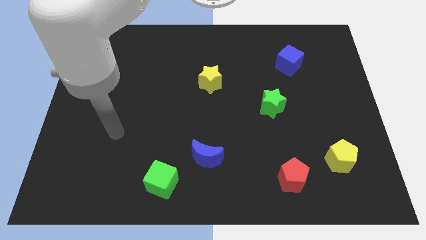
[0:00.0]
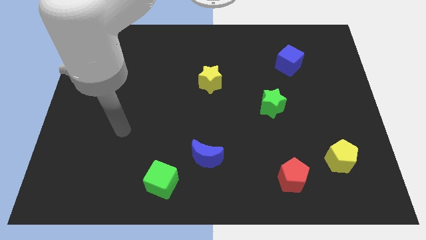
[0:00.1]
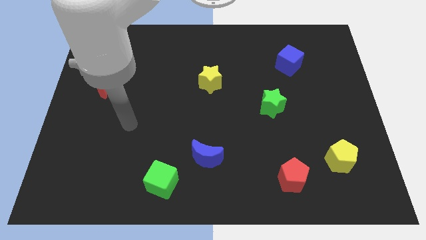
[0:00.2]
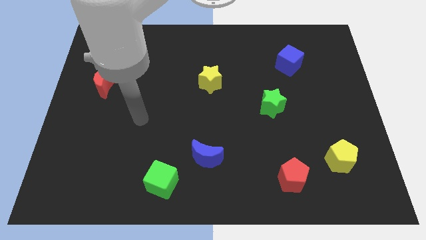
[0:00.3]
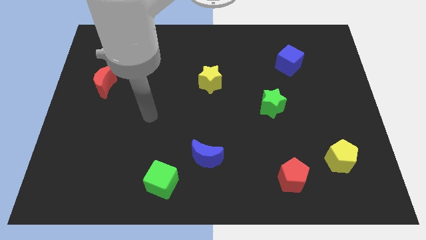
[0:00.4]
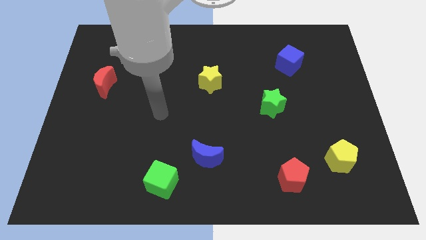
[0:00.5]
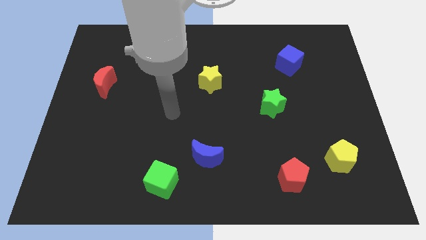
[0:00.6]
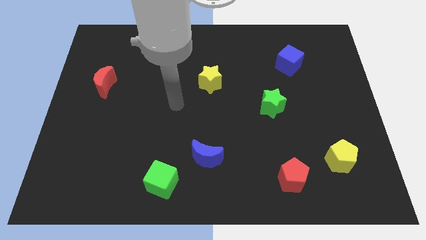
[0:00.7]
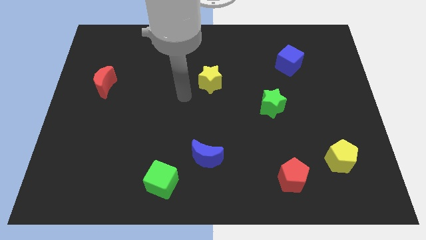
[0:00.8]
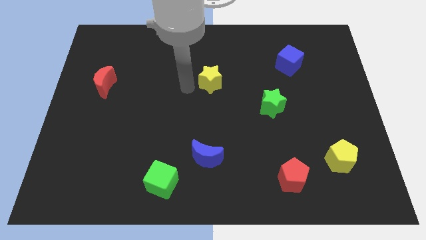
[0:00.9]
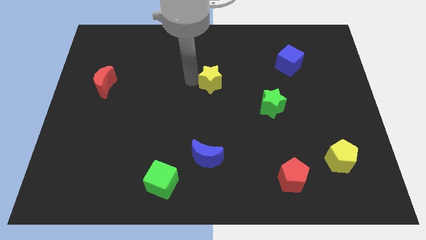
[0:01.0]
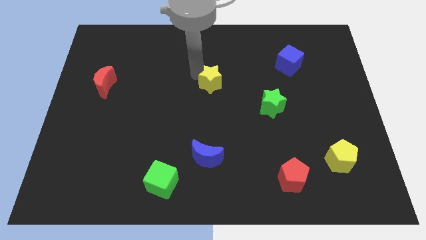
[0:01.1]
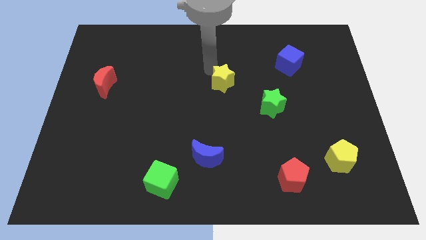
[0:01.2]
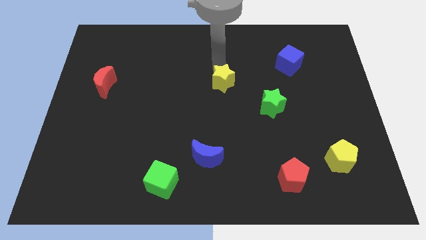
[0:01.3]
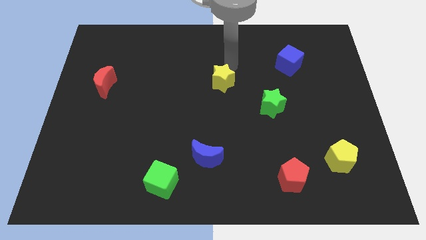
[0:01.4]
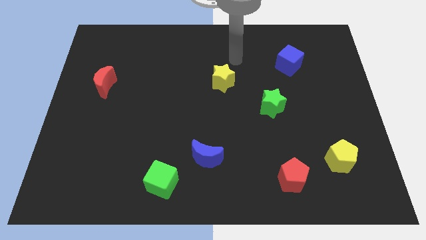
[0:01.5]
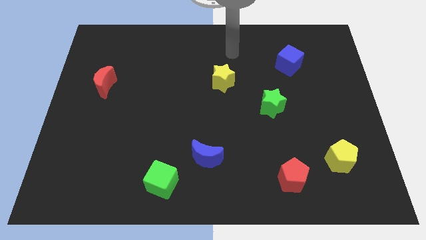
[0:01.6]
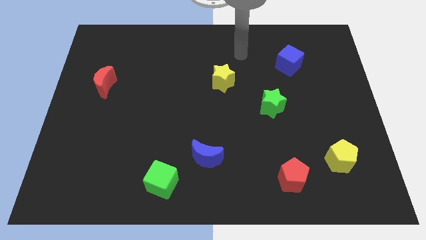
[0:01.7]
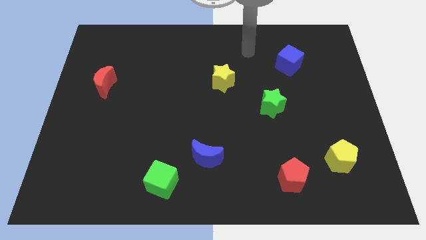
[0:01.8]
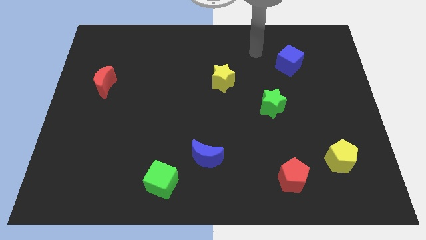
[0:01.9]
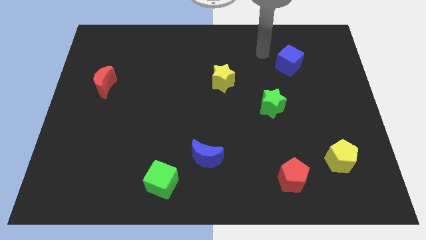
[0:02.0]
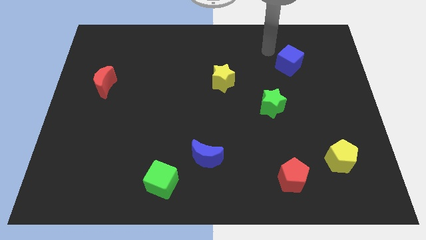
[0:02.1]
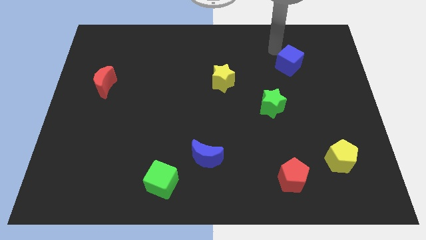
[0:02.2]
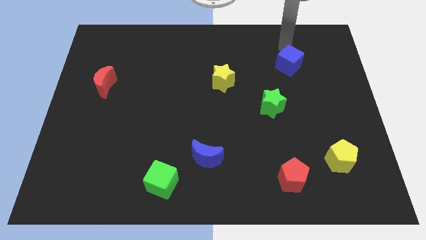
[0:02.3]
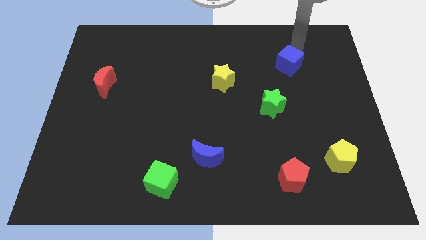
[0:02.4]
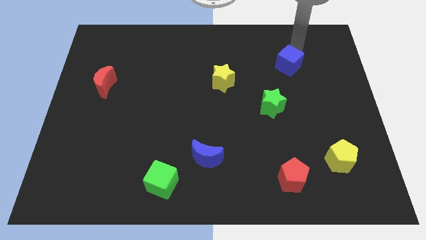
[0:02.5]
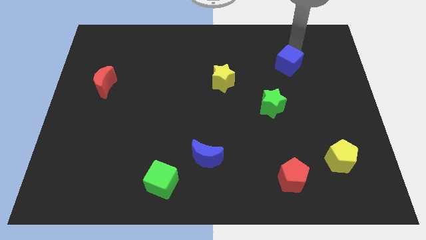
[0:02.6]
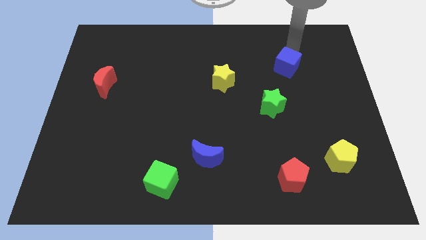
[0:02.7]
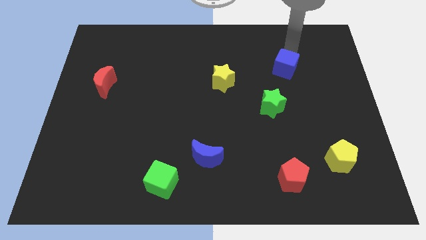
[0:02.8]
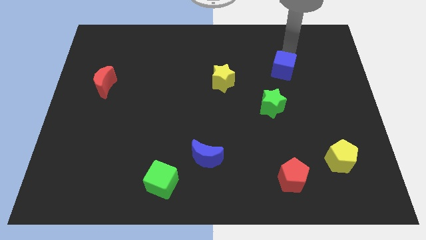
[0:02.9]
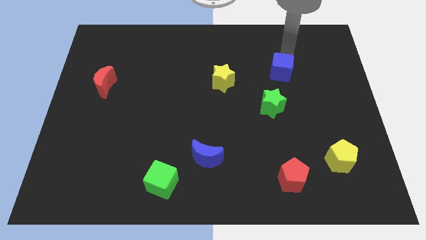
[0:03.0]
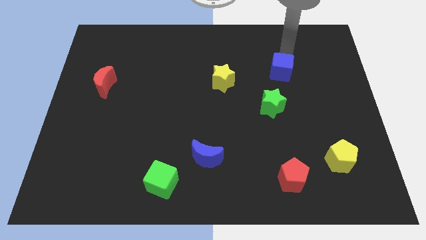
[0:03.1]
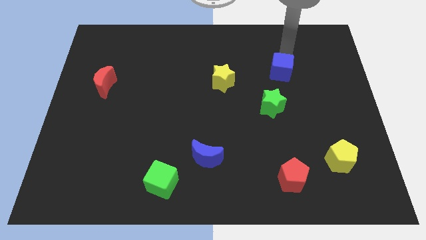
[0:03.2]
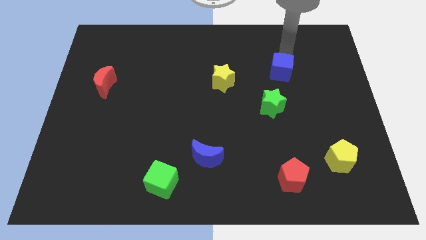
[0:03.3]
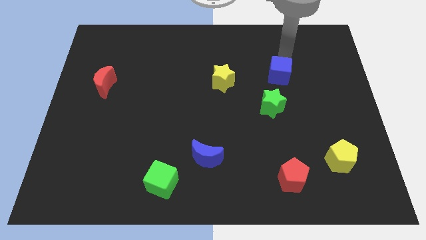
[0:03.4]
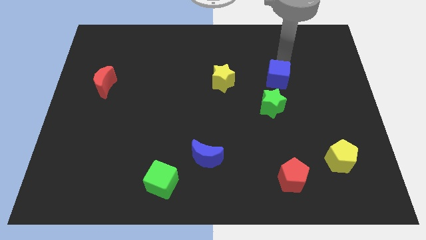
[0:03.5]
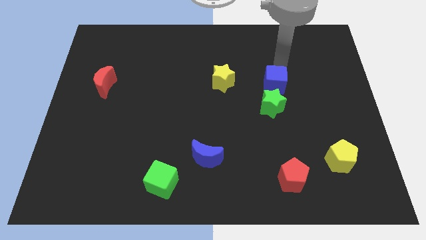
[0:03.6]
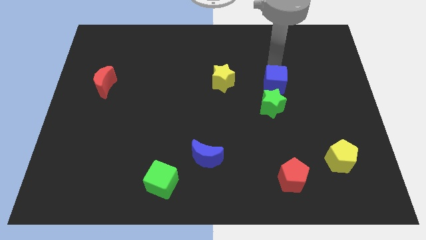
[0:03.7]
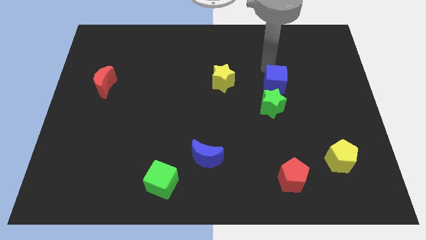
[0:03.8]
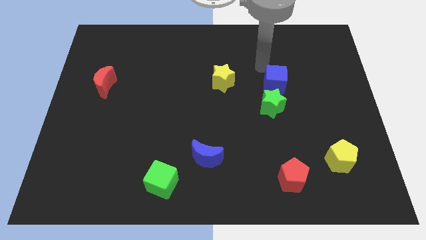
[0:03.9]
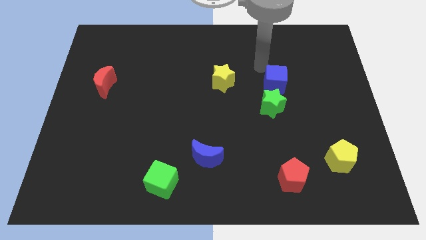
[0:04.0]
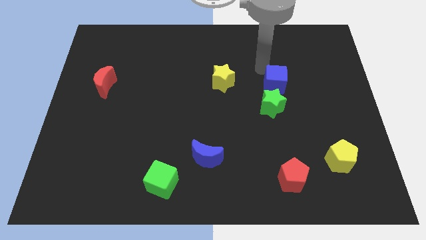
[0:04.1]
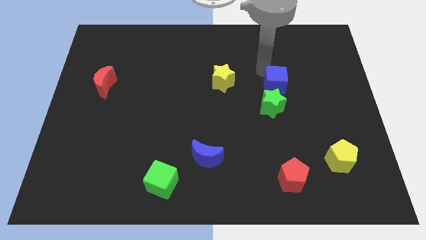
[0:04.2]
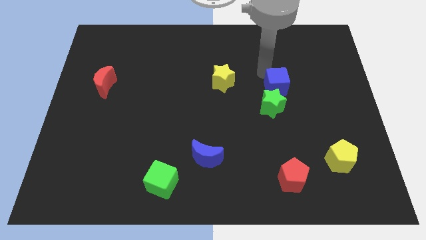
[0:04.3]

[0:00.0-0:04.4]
slightly move the blue cube down

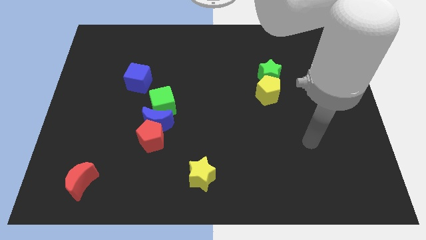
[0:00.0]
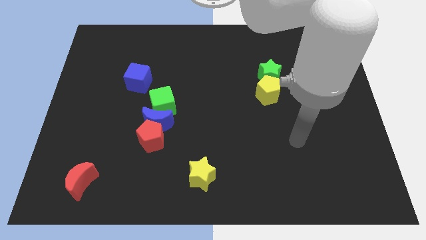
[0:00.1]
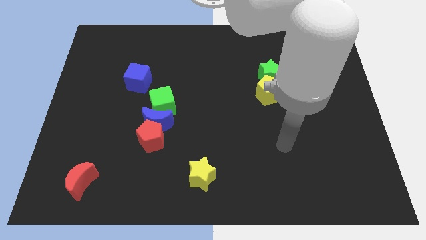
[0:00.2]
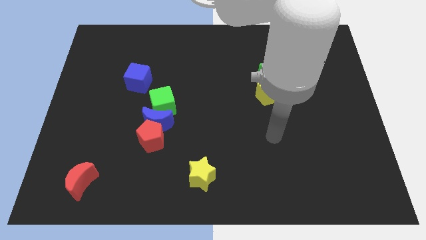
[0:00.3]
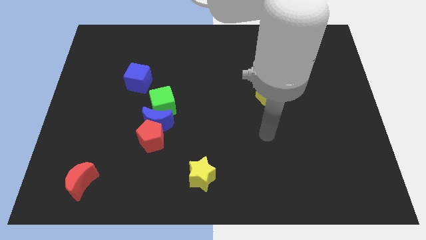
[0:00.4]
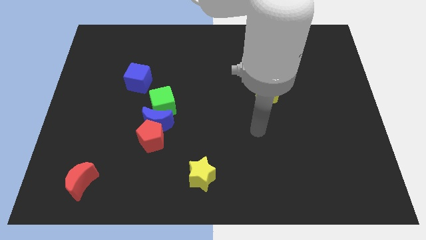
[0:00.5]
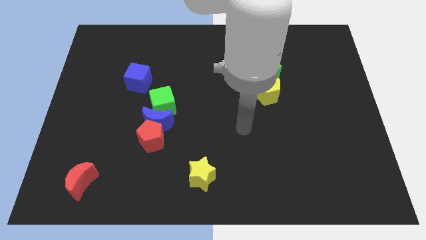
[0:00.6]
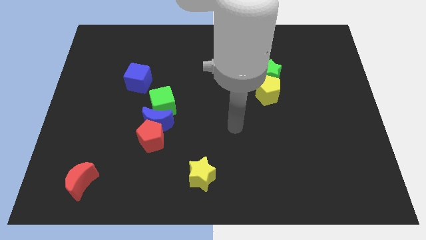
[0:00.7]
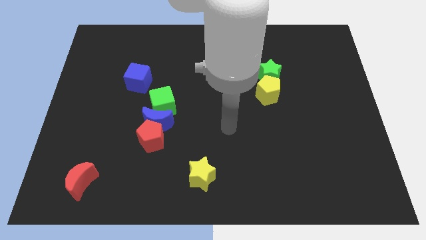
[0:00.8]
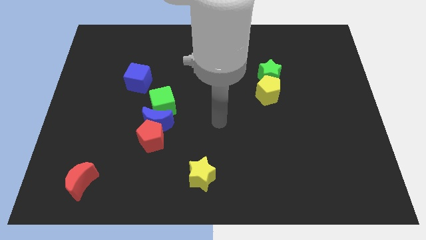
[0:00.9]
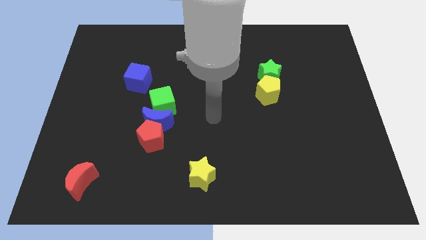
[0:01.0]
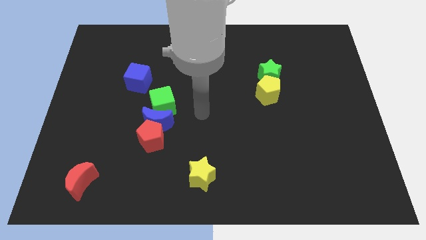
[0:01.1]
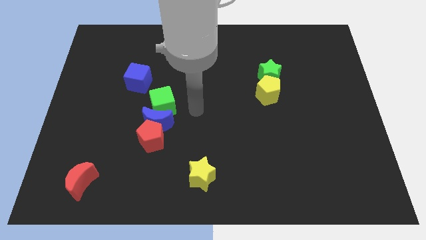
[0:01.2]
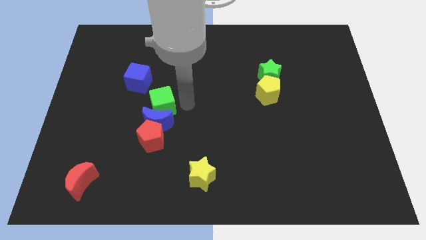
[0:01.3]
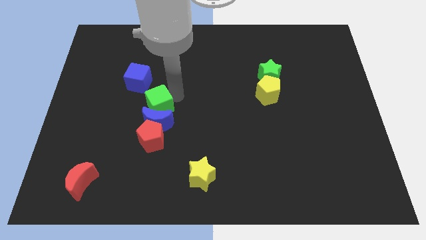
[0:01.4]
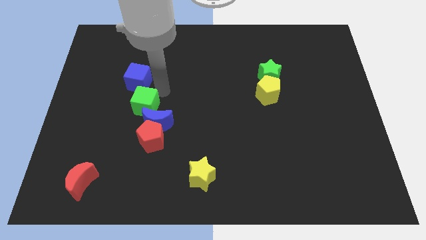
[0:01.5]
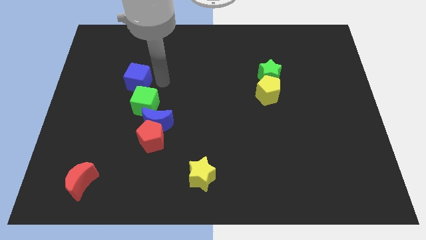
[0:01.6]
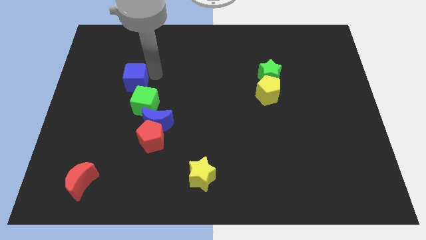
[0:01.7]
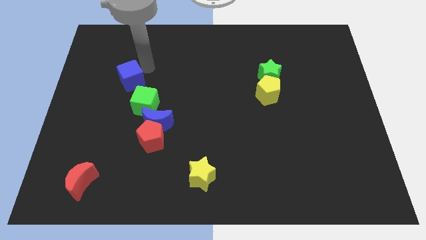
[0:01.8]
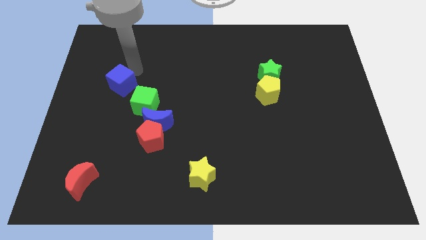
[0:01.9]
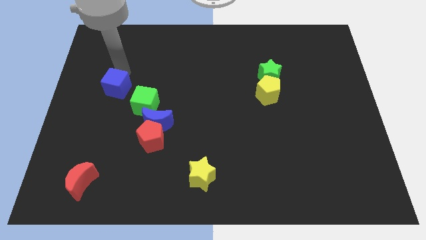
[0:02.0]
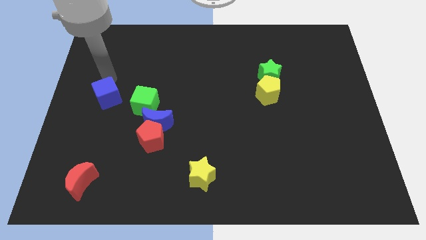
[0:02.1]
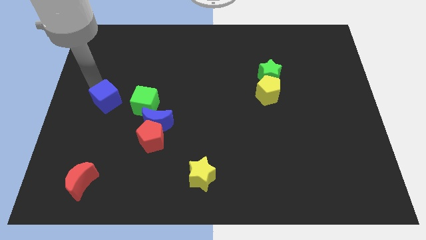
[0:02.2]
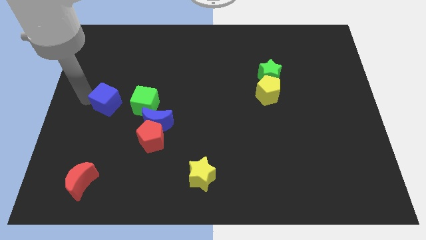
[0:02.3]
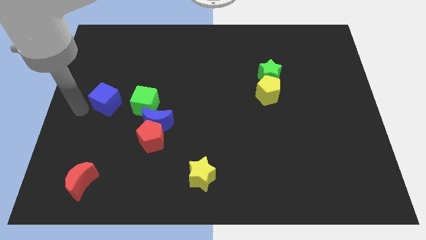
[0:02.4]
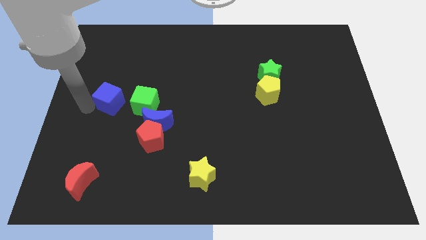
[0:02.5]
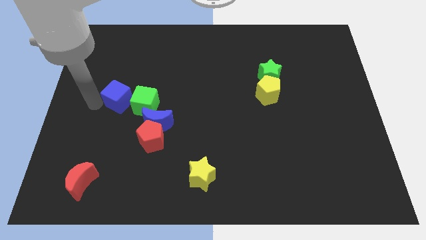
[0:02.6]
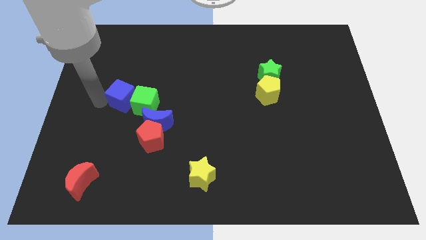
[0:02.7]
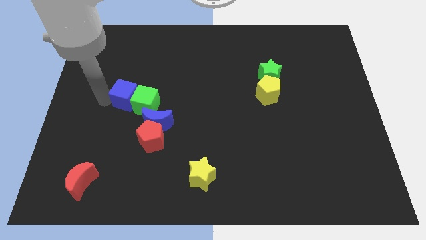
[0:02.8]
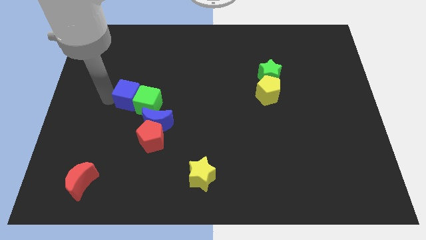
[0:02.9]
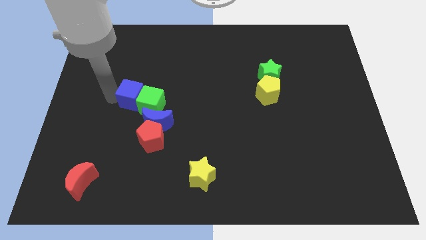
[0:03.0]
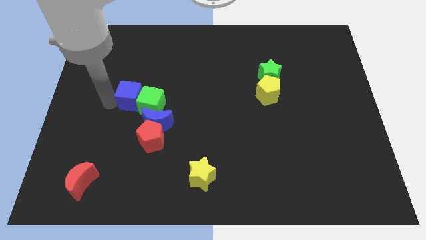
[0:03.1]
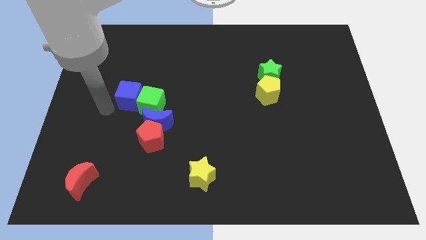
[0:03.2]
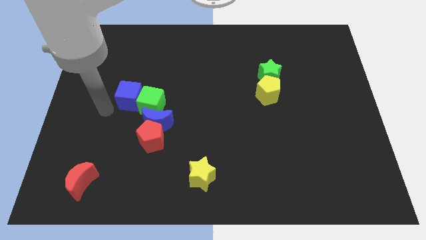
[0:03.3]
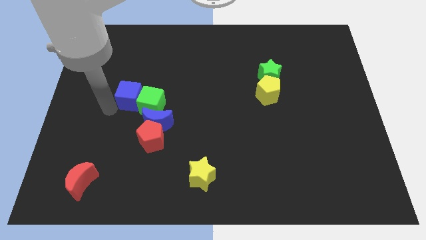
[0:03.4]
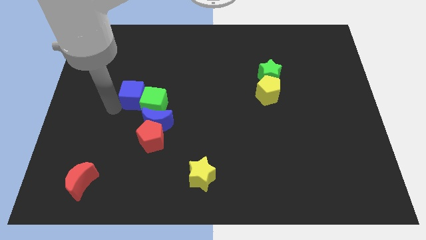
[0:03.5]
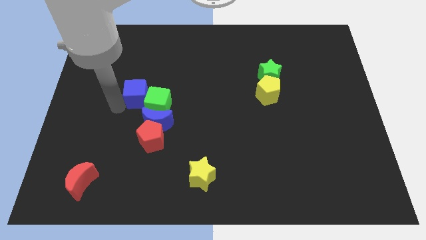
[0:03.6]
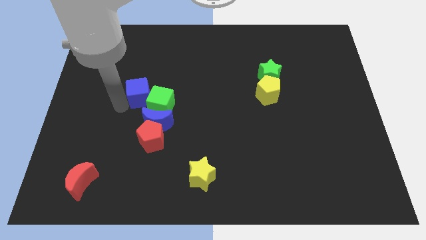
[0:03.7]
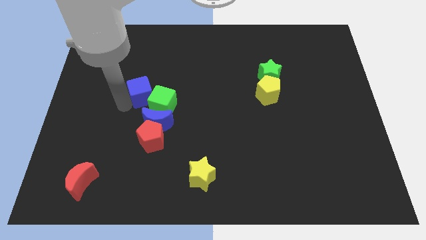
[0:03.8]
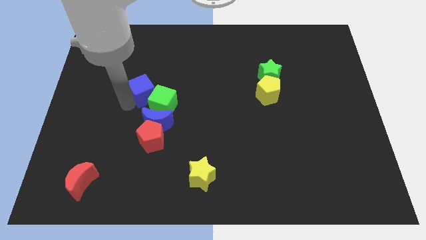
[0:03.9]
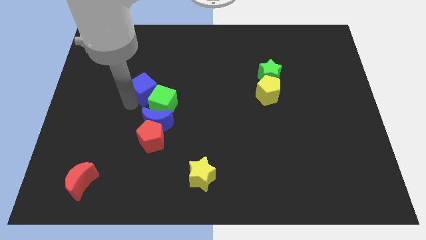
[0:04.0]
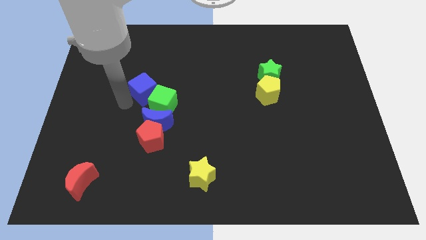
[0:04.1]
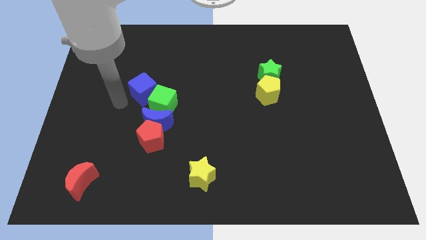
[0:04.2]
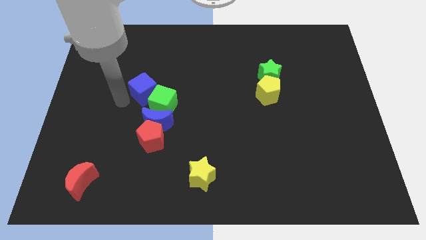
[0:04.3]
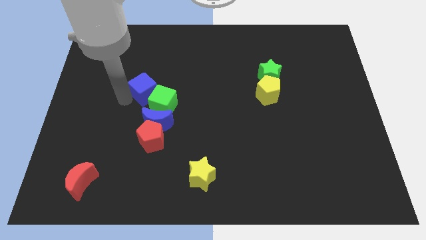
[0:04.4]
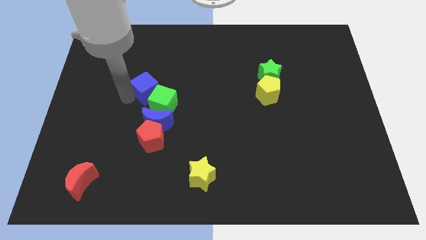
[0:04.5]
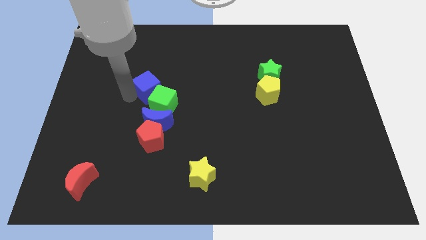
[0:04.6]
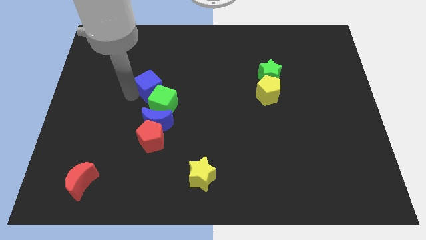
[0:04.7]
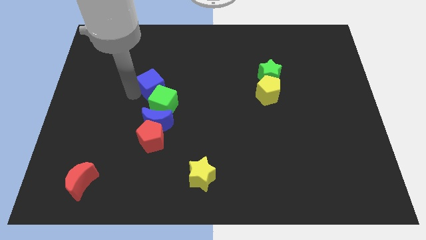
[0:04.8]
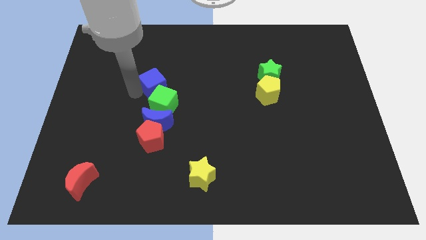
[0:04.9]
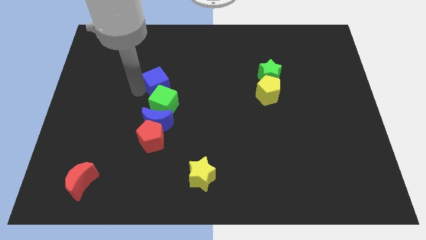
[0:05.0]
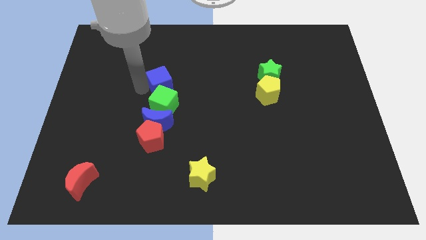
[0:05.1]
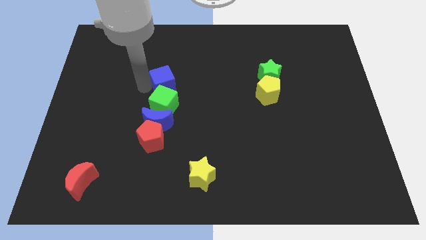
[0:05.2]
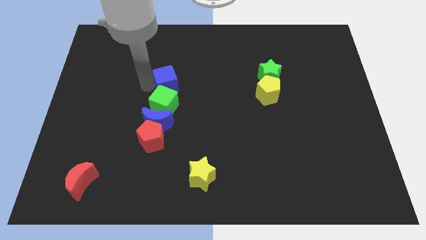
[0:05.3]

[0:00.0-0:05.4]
slide the blue cube somewhat right
